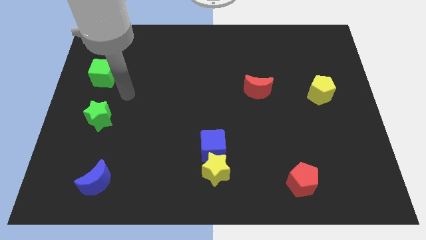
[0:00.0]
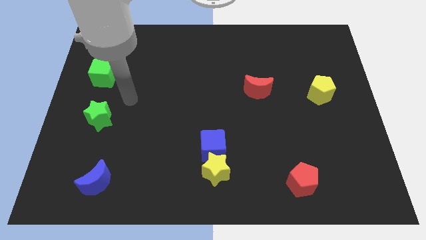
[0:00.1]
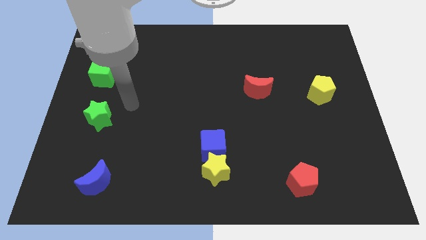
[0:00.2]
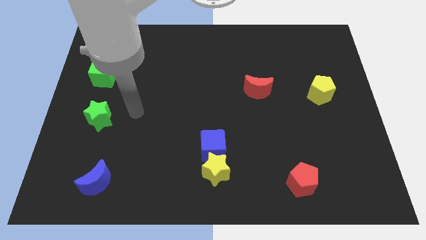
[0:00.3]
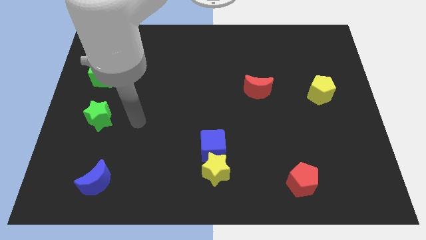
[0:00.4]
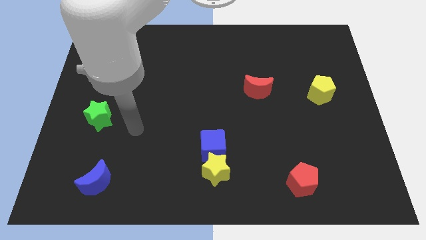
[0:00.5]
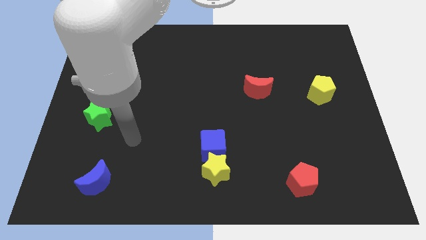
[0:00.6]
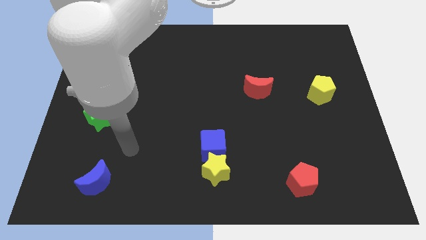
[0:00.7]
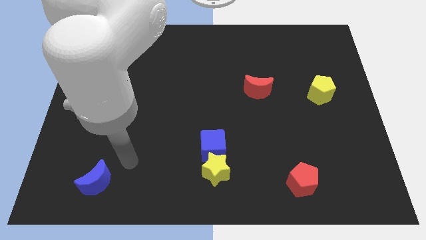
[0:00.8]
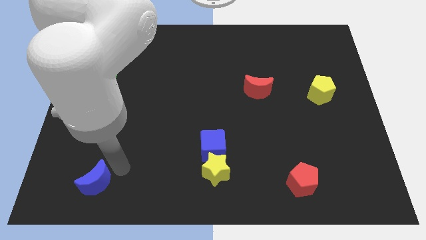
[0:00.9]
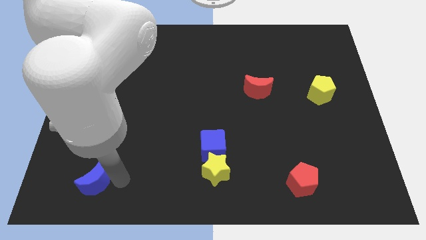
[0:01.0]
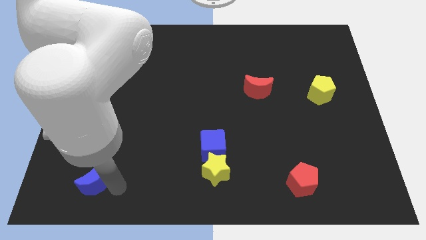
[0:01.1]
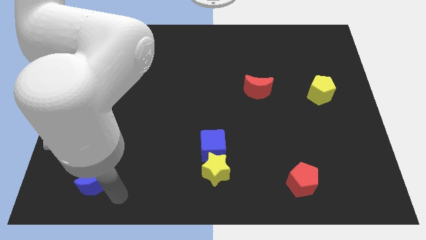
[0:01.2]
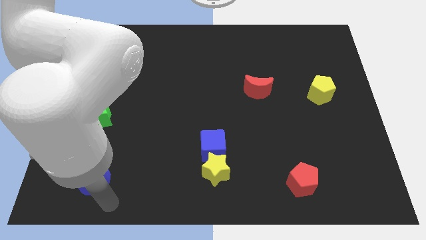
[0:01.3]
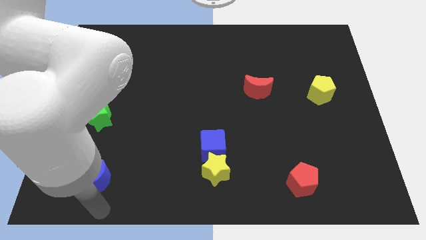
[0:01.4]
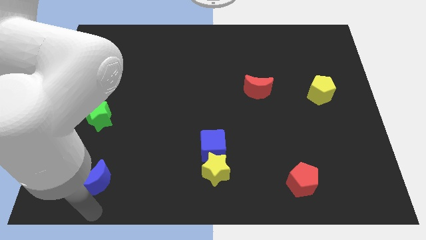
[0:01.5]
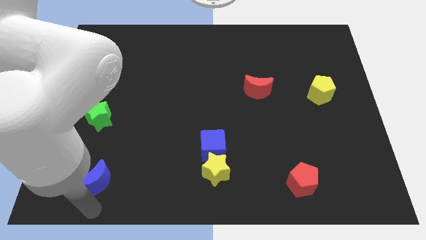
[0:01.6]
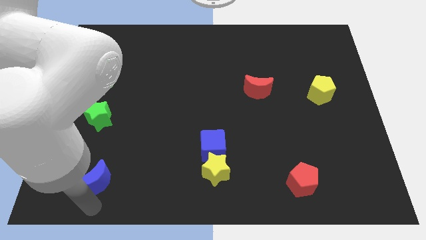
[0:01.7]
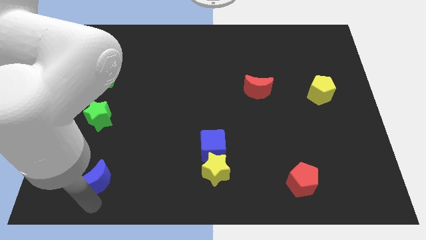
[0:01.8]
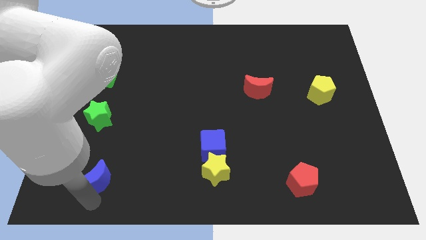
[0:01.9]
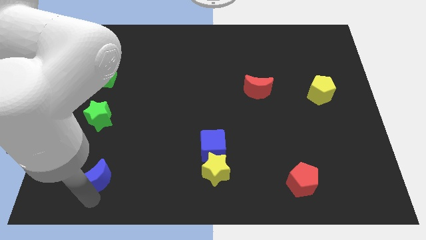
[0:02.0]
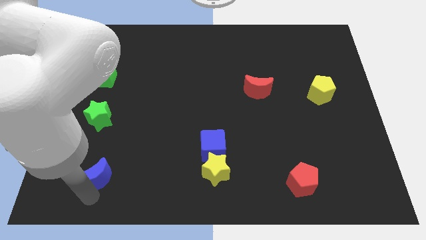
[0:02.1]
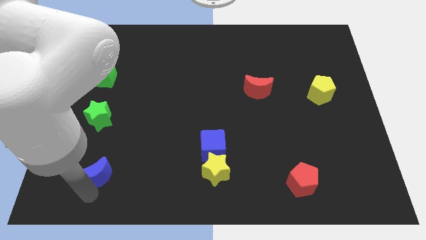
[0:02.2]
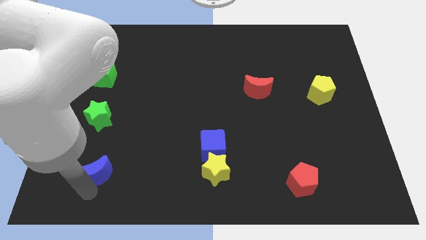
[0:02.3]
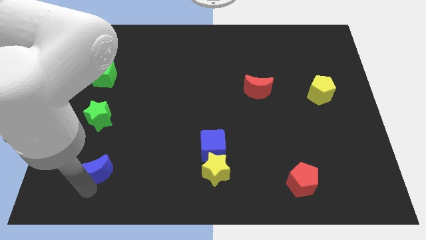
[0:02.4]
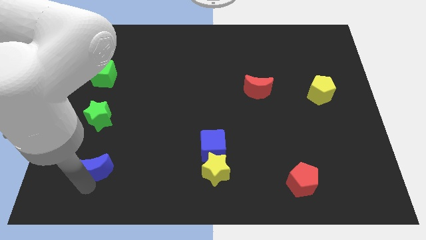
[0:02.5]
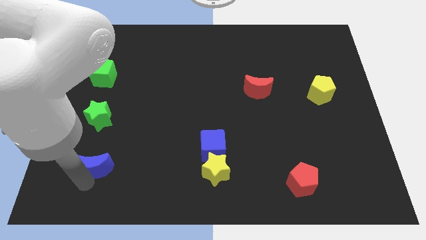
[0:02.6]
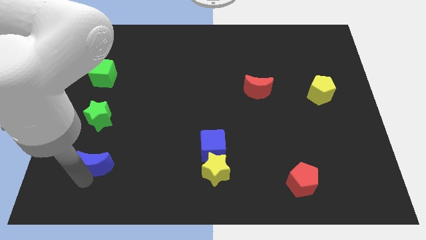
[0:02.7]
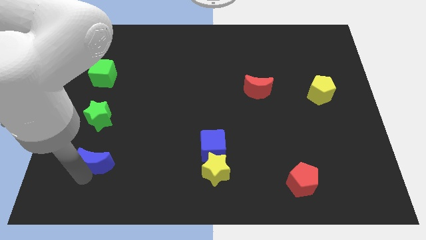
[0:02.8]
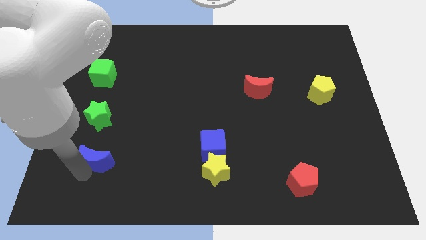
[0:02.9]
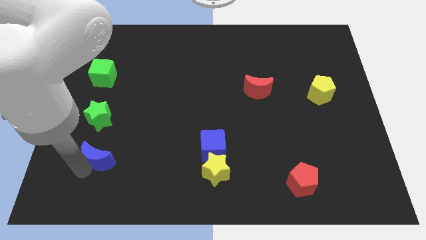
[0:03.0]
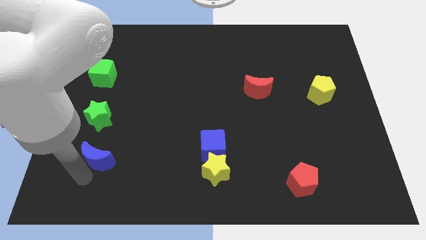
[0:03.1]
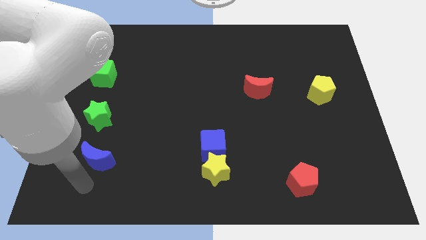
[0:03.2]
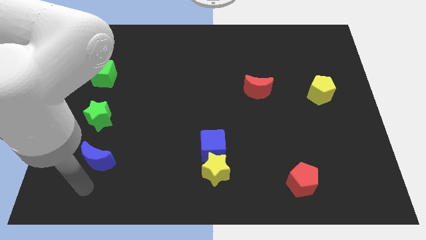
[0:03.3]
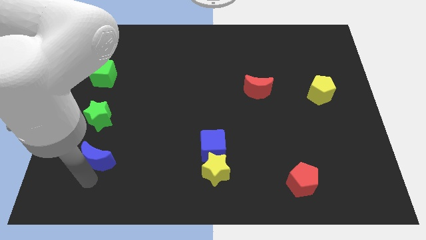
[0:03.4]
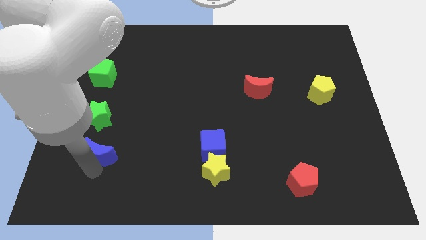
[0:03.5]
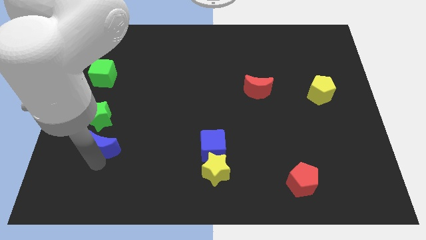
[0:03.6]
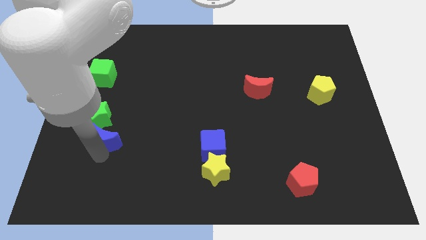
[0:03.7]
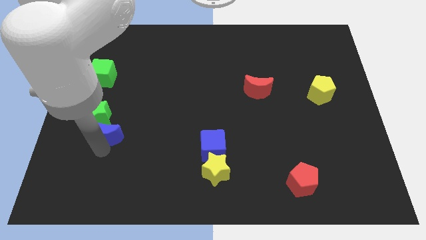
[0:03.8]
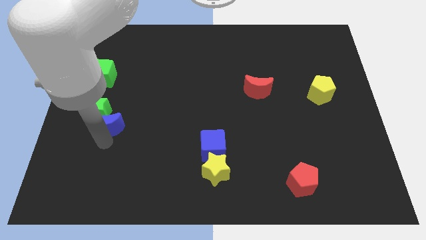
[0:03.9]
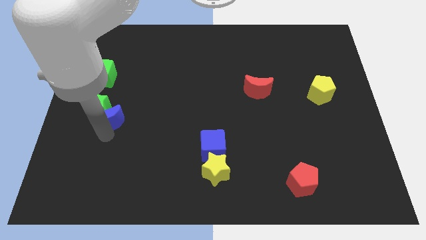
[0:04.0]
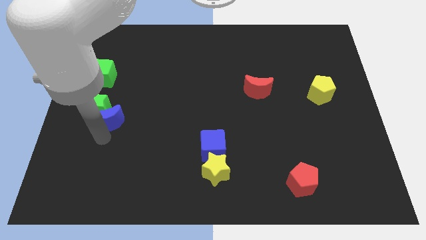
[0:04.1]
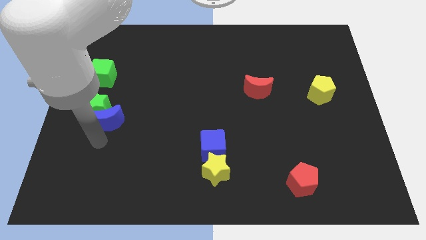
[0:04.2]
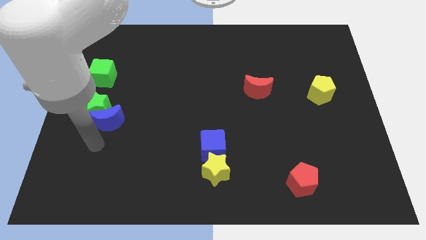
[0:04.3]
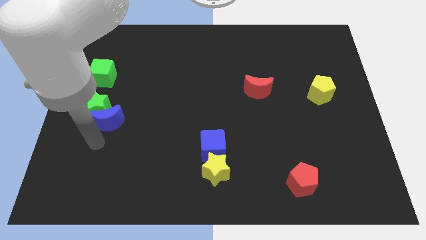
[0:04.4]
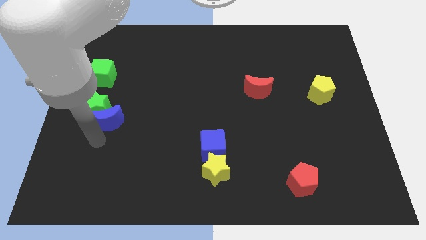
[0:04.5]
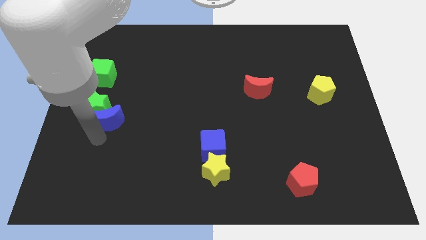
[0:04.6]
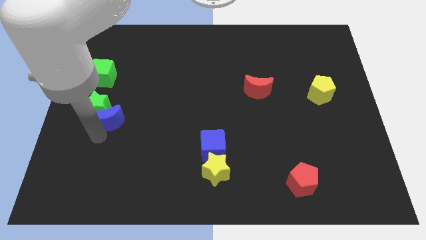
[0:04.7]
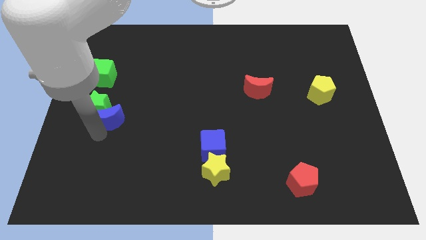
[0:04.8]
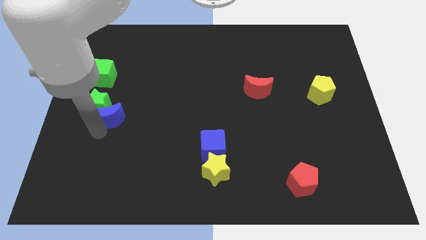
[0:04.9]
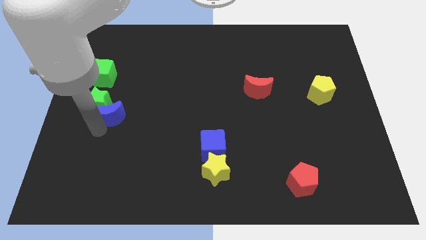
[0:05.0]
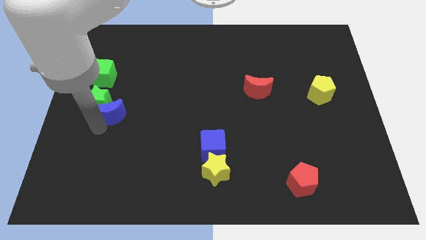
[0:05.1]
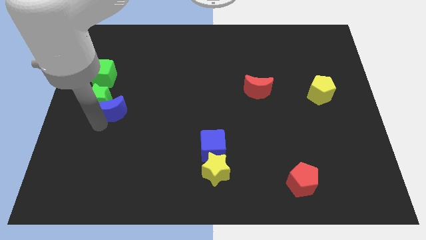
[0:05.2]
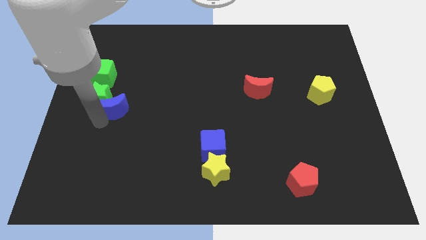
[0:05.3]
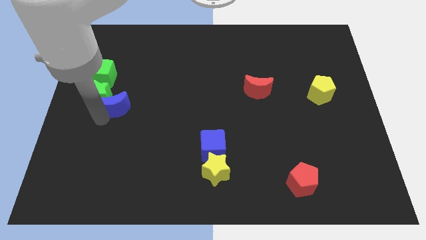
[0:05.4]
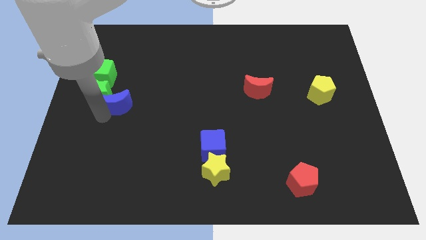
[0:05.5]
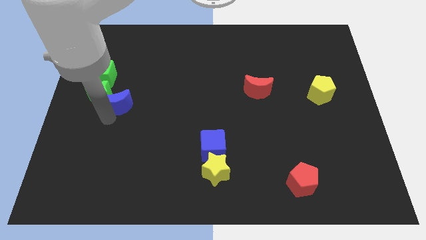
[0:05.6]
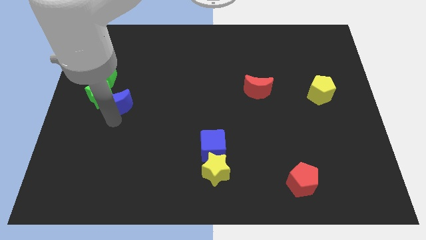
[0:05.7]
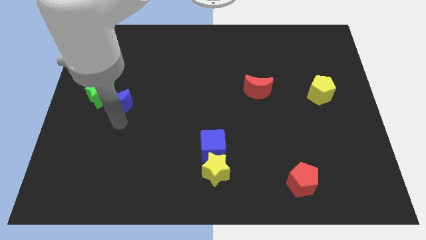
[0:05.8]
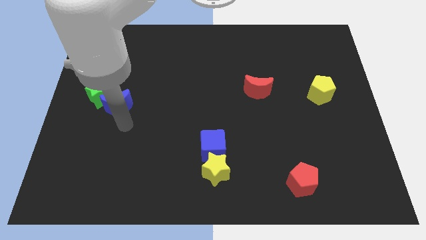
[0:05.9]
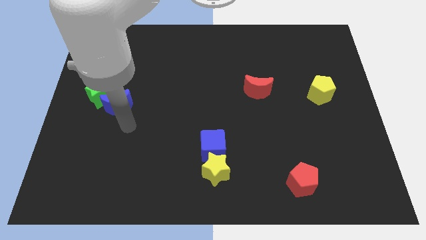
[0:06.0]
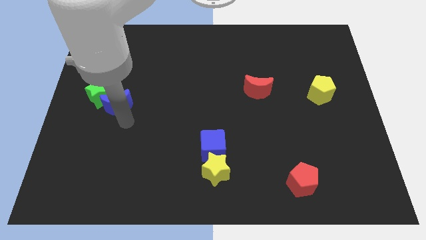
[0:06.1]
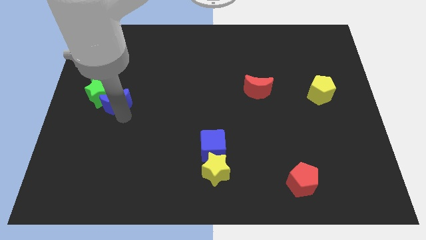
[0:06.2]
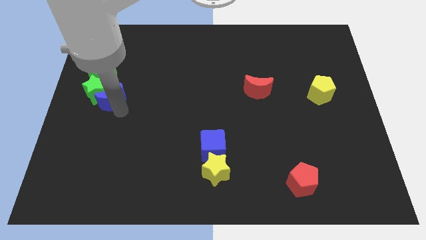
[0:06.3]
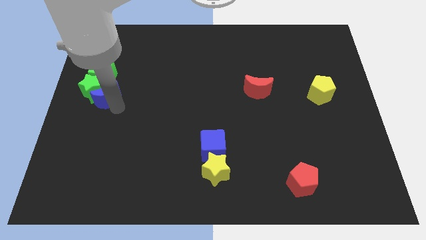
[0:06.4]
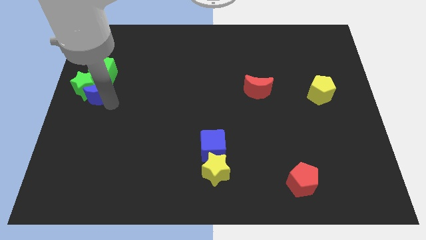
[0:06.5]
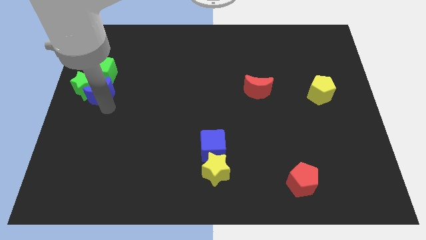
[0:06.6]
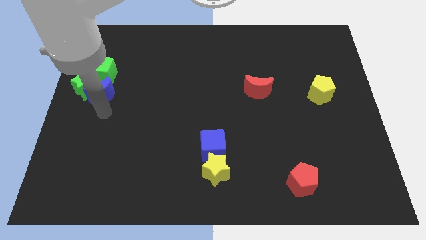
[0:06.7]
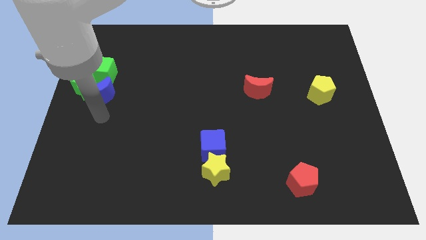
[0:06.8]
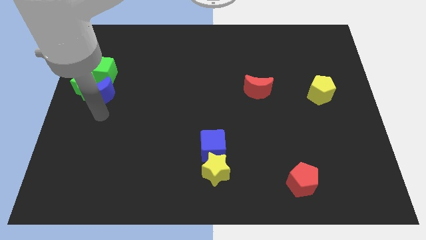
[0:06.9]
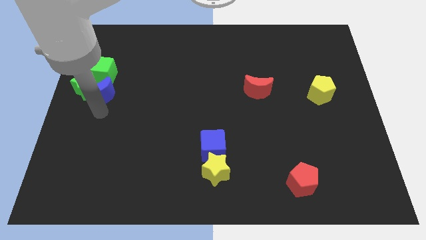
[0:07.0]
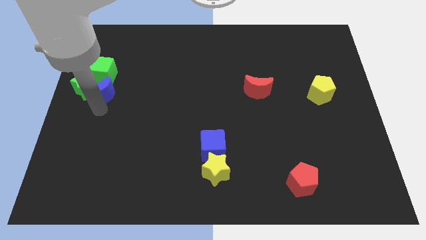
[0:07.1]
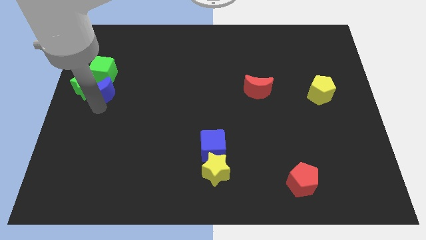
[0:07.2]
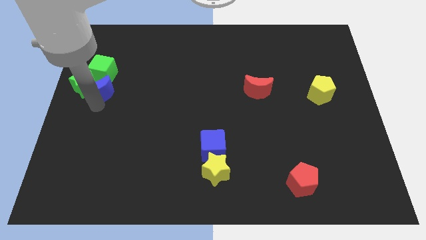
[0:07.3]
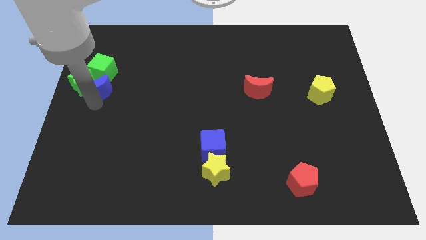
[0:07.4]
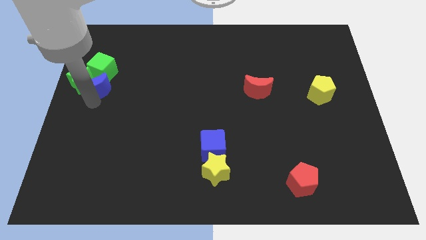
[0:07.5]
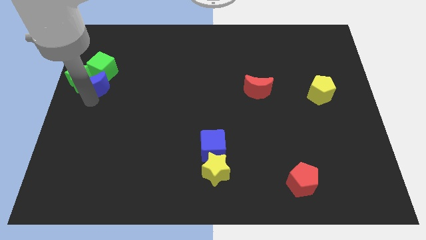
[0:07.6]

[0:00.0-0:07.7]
move the blue moon close to the green cube
